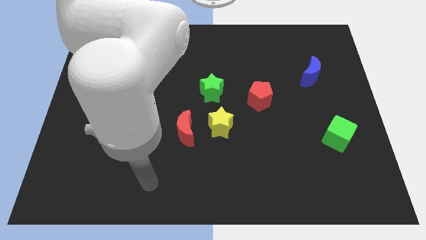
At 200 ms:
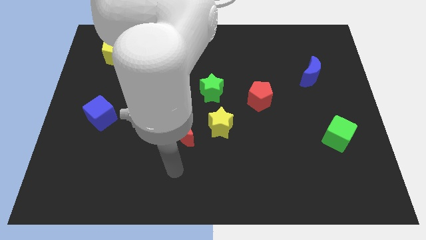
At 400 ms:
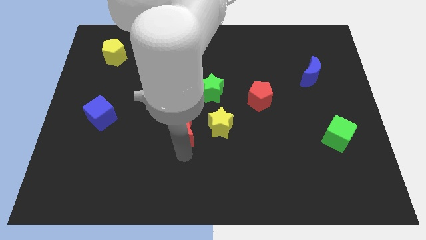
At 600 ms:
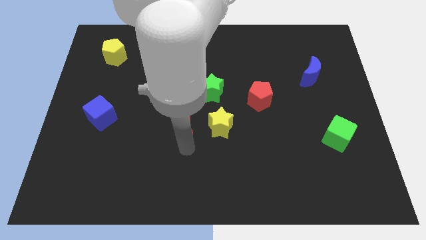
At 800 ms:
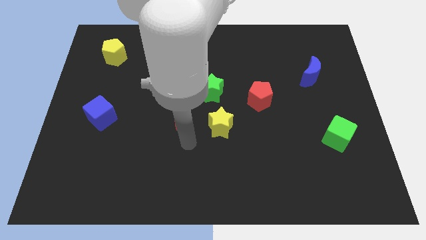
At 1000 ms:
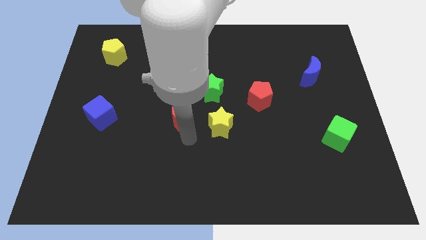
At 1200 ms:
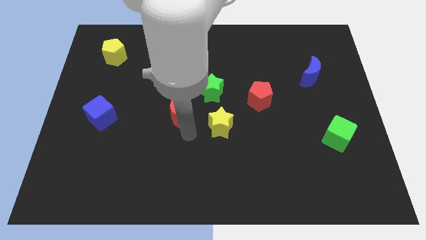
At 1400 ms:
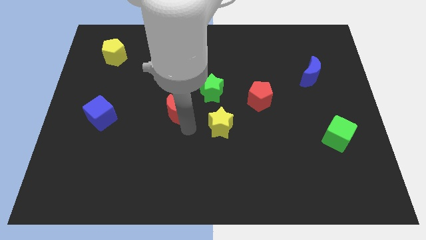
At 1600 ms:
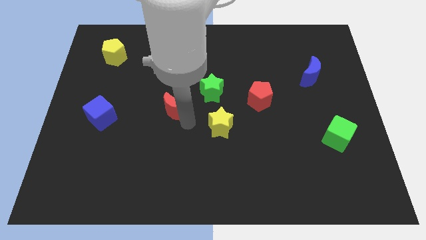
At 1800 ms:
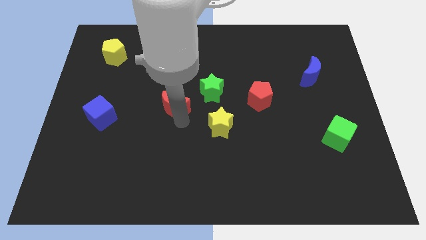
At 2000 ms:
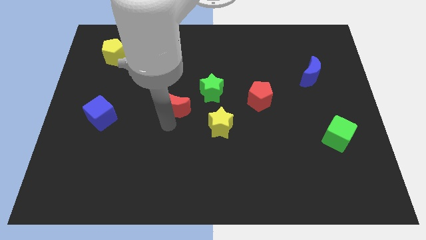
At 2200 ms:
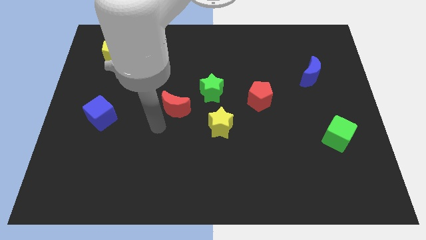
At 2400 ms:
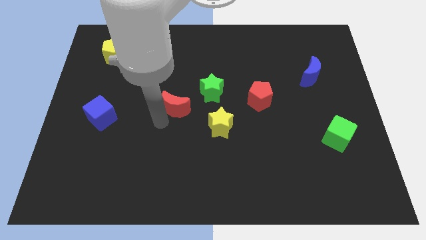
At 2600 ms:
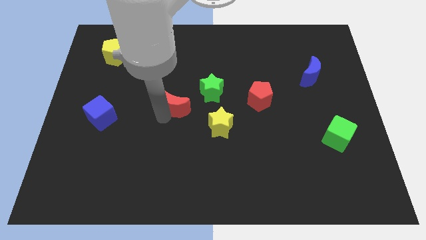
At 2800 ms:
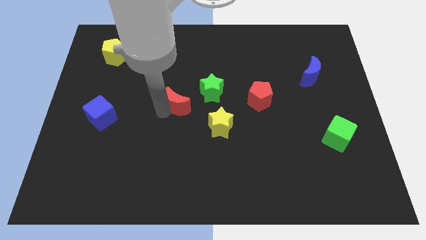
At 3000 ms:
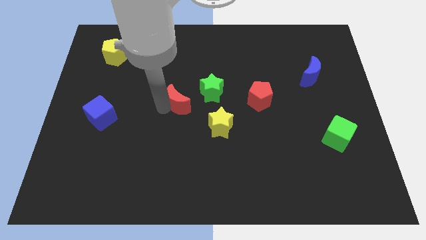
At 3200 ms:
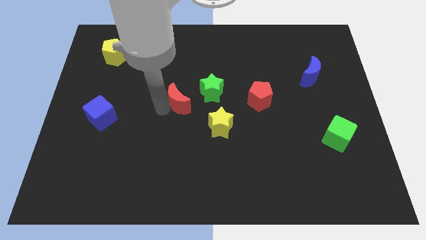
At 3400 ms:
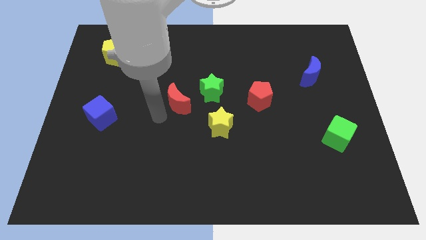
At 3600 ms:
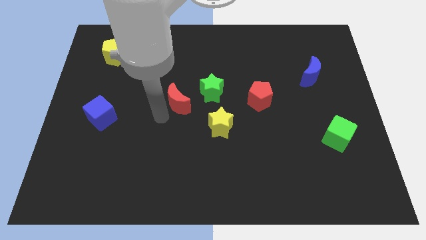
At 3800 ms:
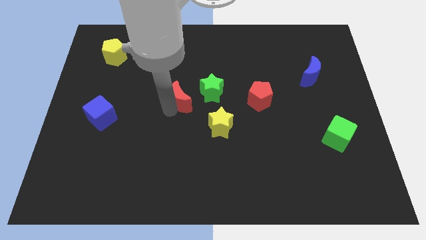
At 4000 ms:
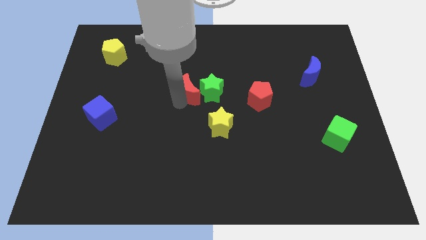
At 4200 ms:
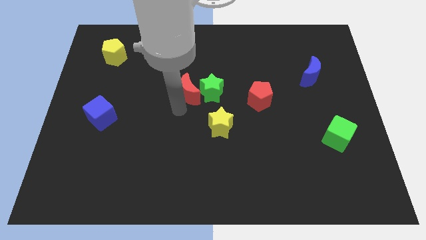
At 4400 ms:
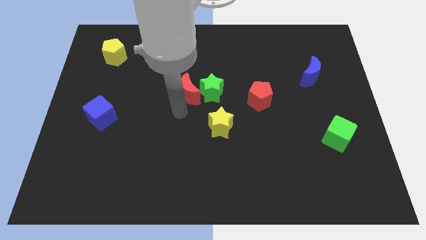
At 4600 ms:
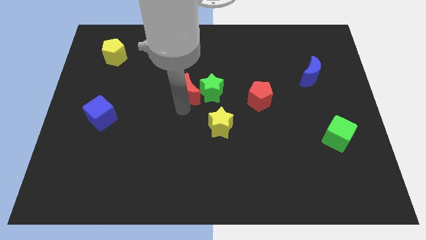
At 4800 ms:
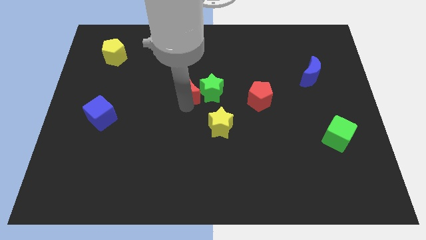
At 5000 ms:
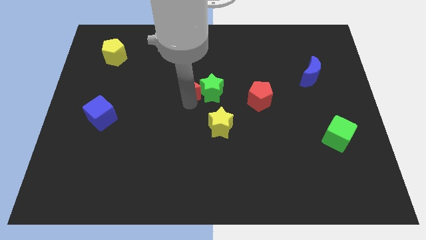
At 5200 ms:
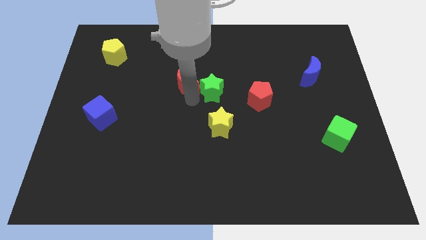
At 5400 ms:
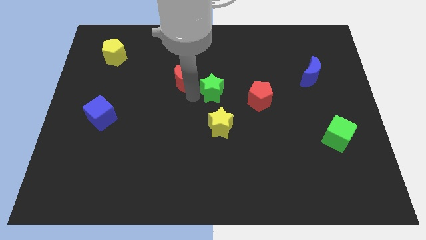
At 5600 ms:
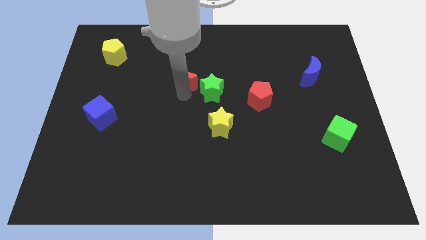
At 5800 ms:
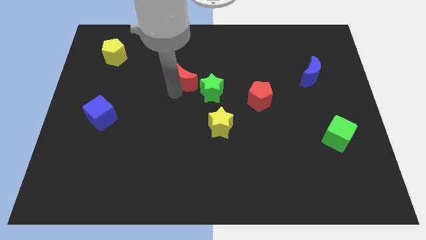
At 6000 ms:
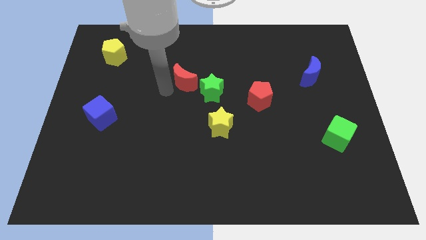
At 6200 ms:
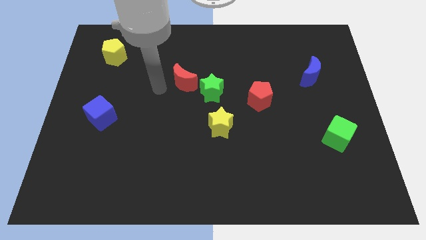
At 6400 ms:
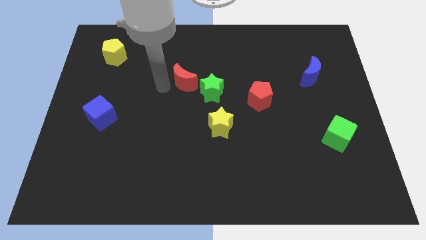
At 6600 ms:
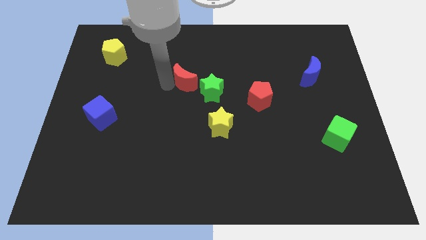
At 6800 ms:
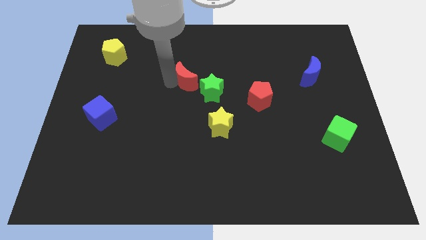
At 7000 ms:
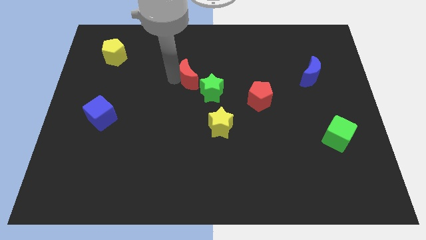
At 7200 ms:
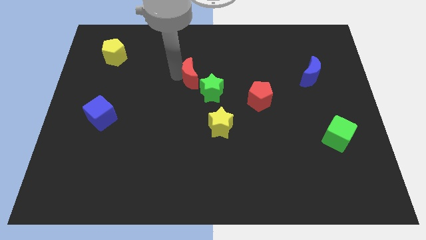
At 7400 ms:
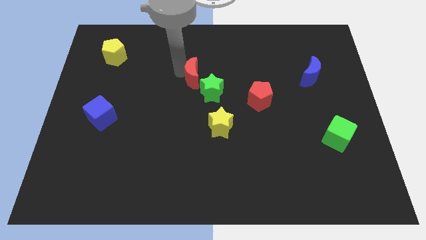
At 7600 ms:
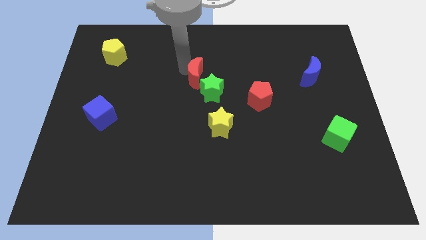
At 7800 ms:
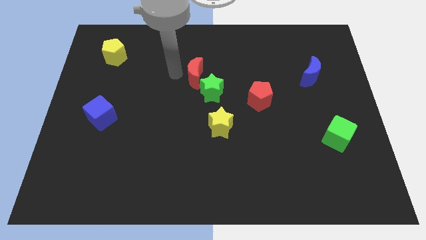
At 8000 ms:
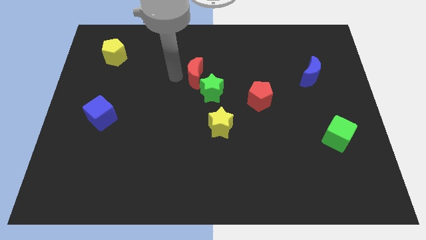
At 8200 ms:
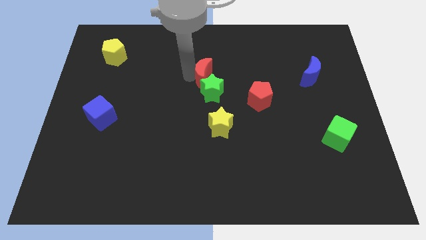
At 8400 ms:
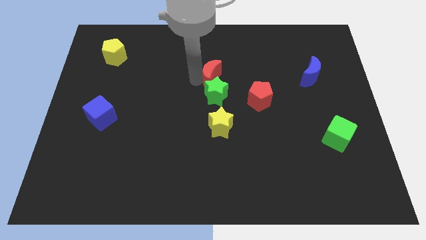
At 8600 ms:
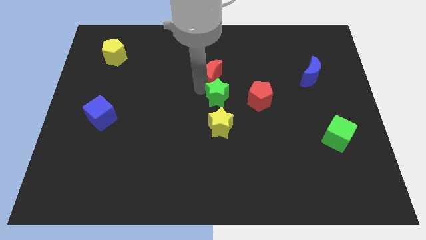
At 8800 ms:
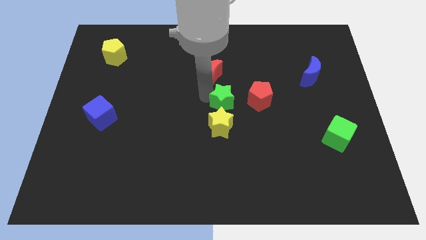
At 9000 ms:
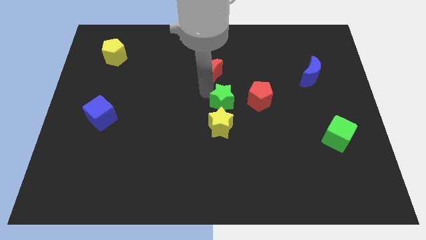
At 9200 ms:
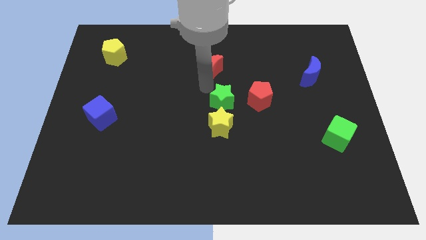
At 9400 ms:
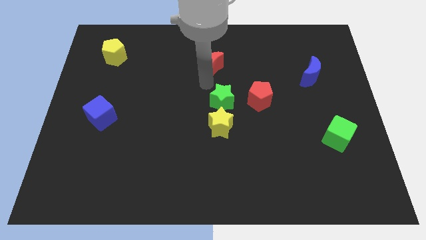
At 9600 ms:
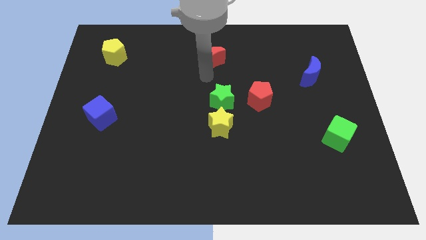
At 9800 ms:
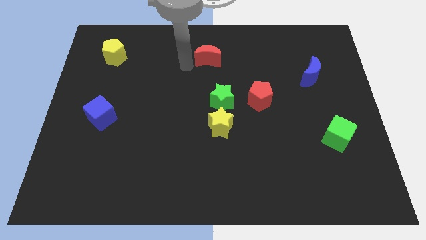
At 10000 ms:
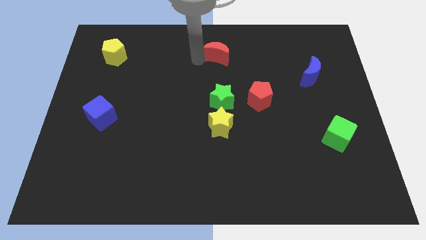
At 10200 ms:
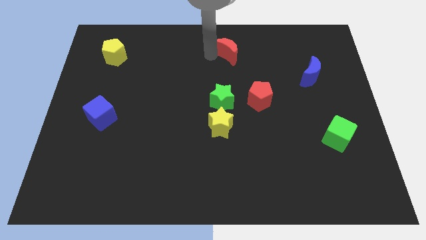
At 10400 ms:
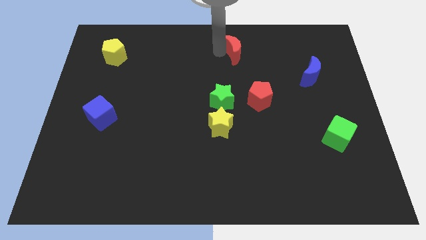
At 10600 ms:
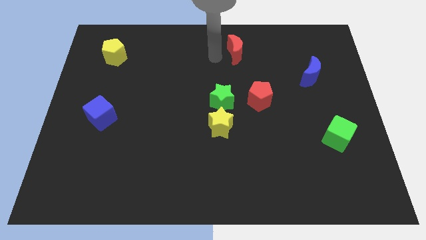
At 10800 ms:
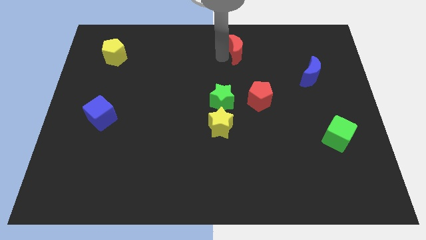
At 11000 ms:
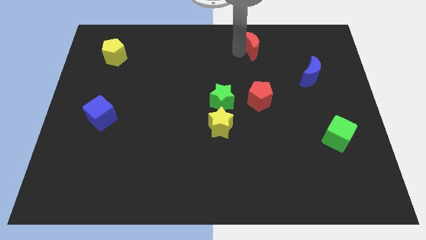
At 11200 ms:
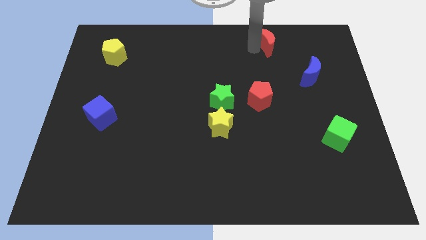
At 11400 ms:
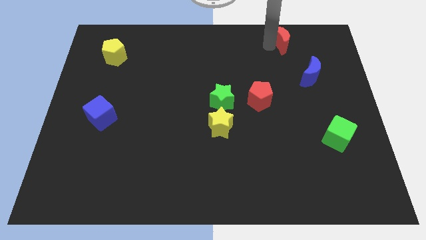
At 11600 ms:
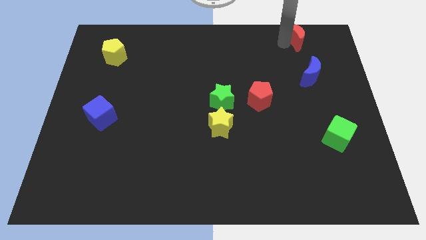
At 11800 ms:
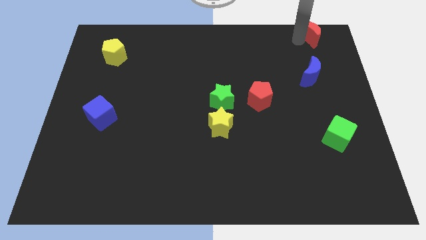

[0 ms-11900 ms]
slide the red moon to the top right
